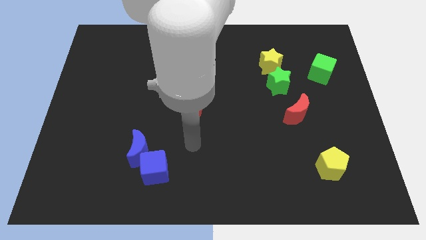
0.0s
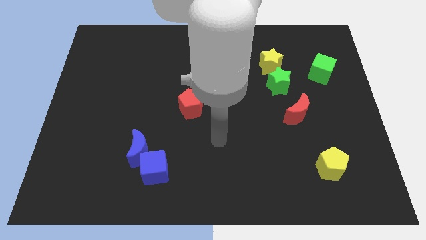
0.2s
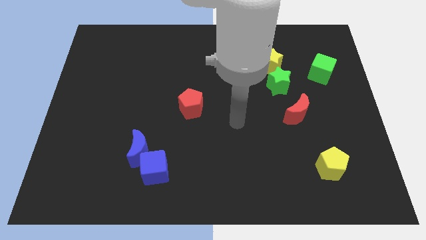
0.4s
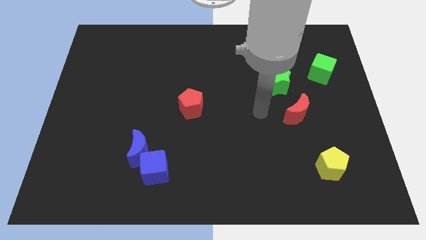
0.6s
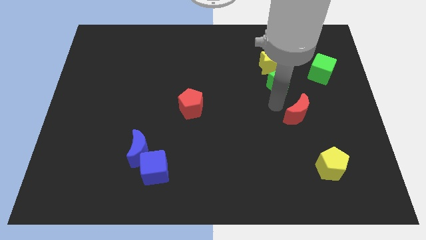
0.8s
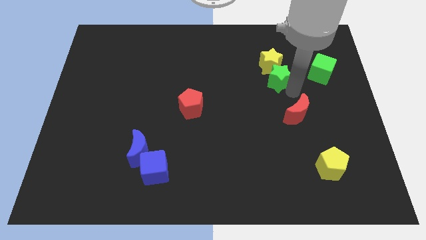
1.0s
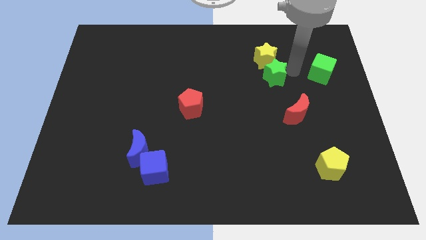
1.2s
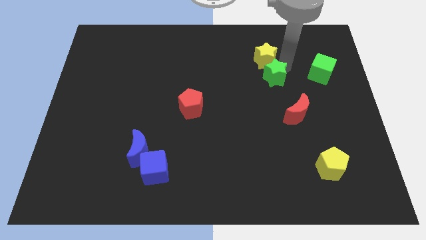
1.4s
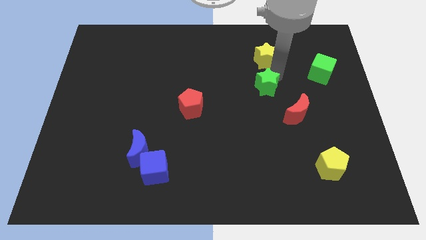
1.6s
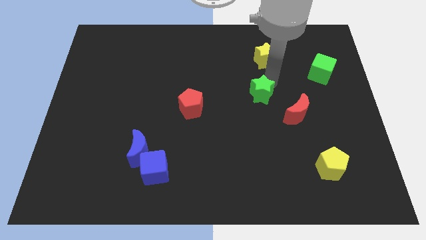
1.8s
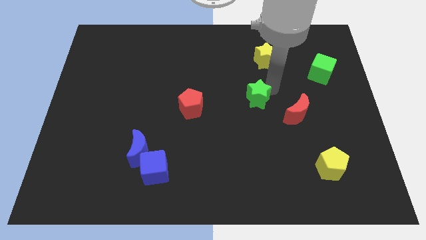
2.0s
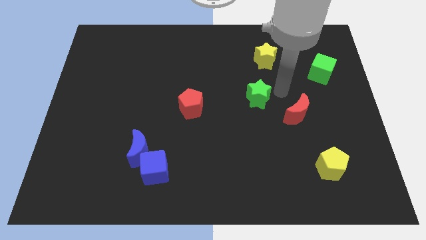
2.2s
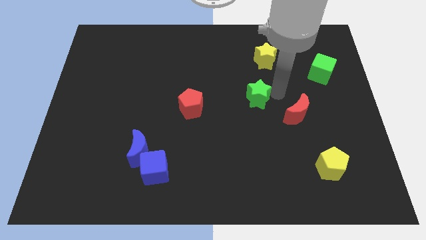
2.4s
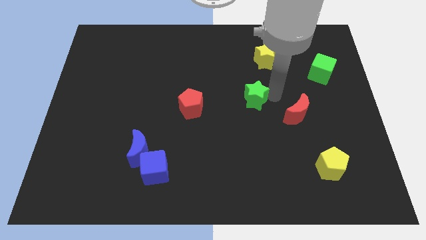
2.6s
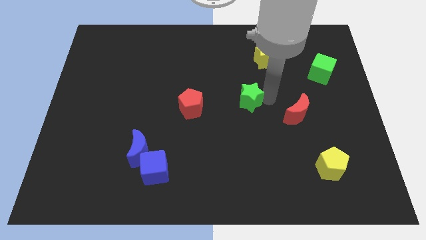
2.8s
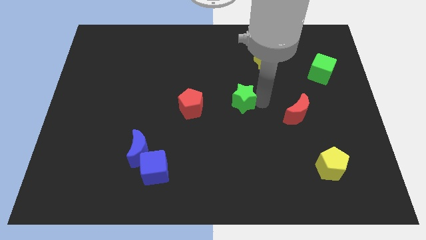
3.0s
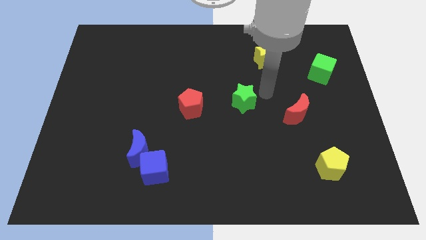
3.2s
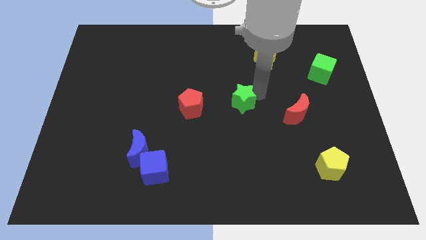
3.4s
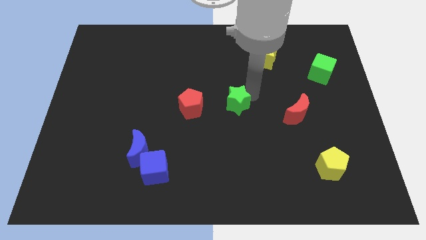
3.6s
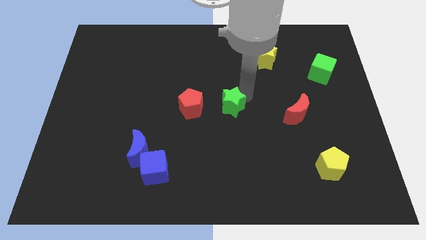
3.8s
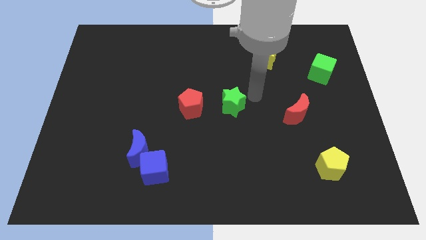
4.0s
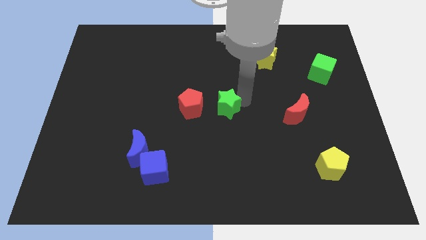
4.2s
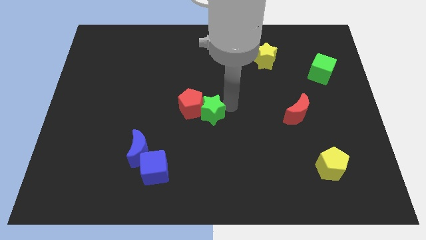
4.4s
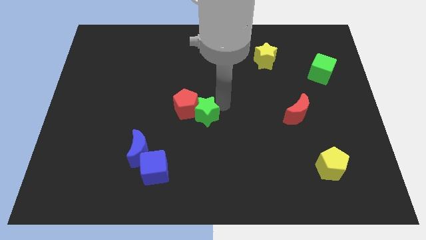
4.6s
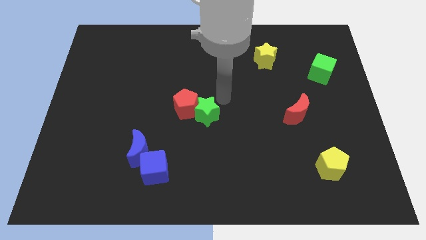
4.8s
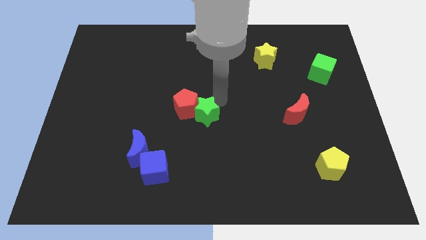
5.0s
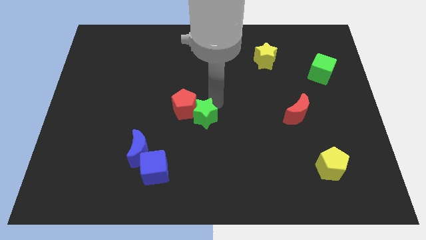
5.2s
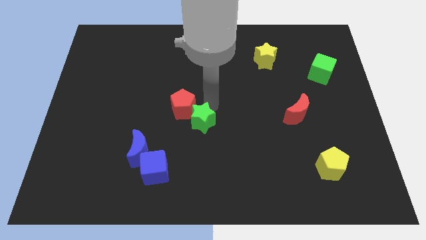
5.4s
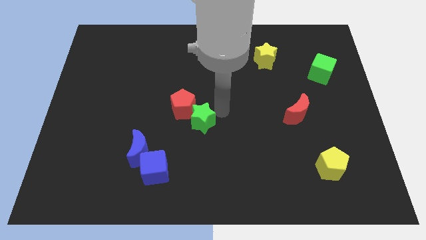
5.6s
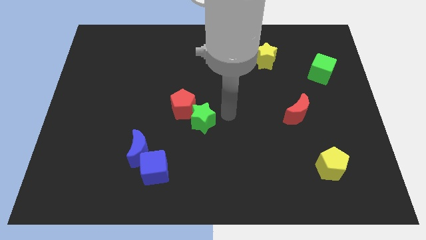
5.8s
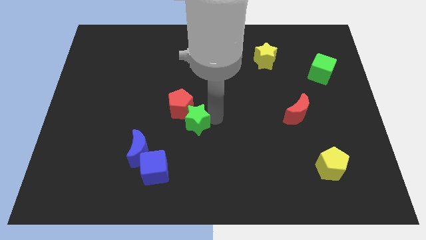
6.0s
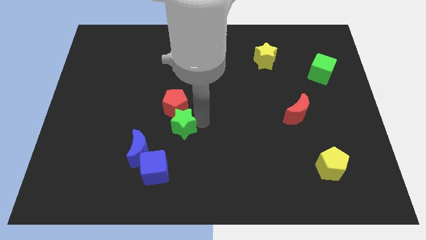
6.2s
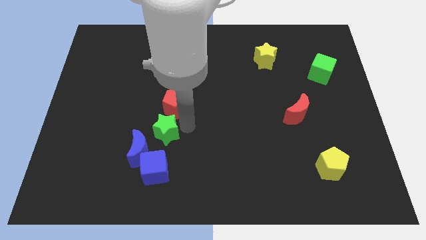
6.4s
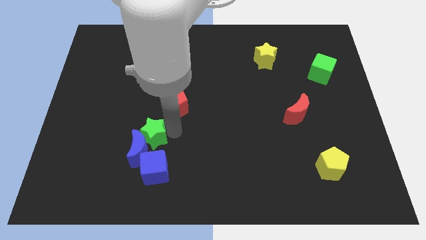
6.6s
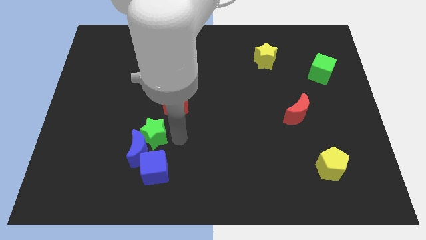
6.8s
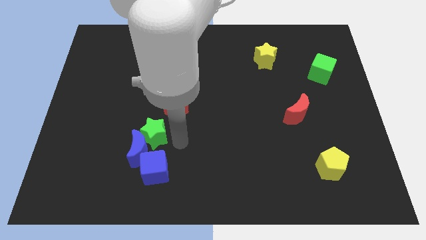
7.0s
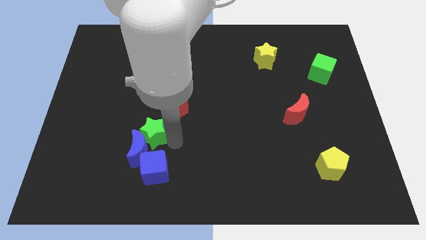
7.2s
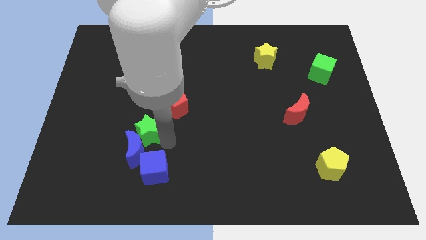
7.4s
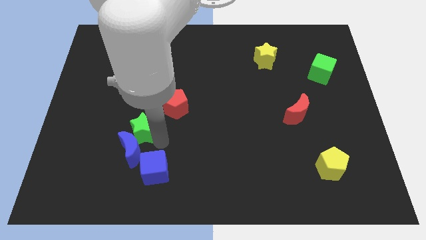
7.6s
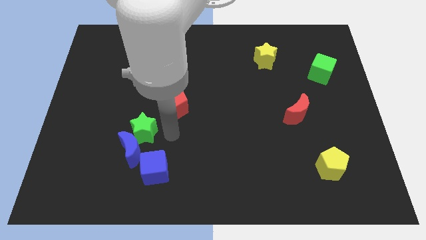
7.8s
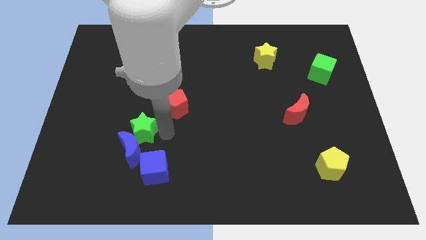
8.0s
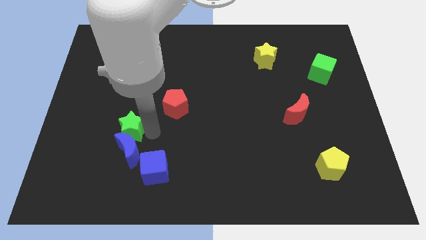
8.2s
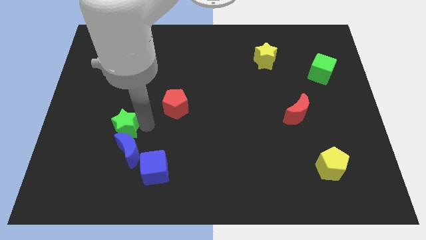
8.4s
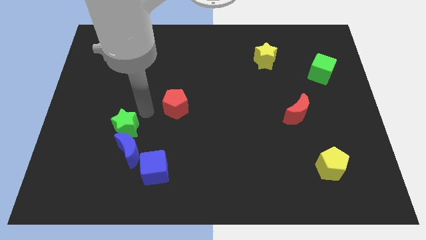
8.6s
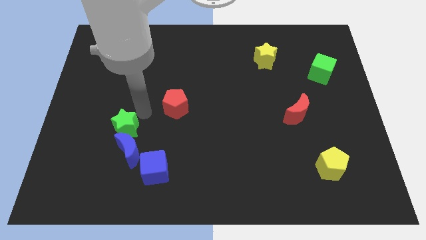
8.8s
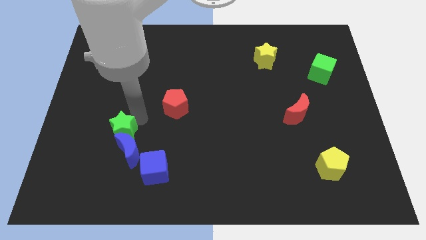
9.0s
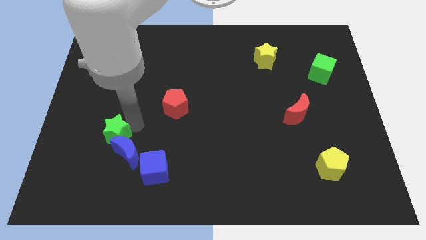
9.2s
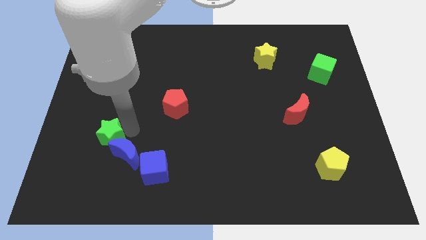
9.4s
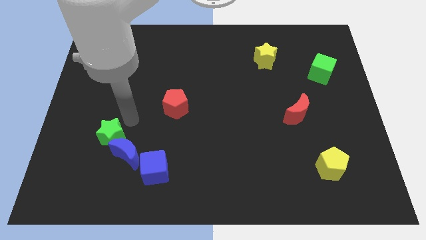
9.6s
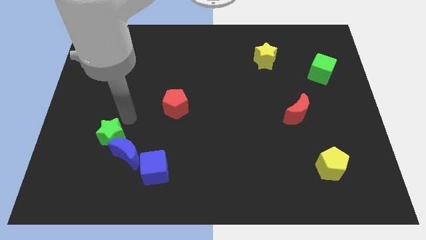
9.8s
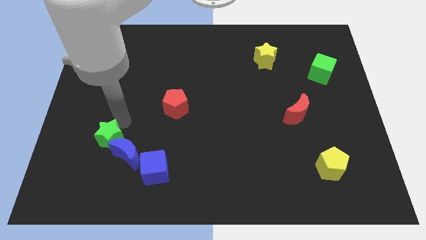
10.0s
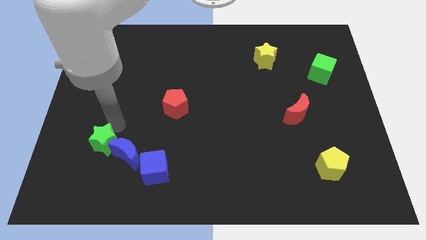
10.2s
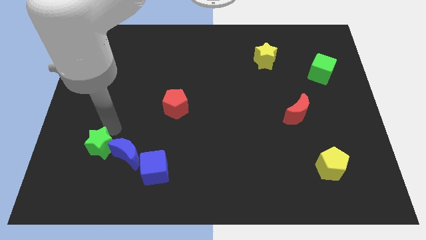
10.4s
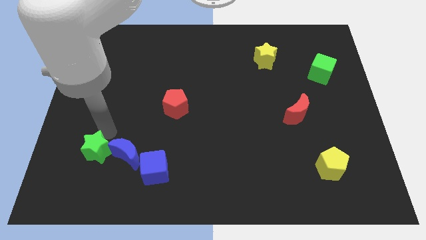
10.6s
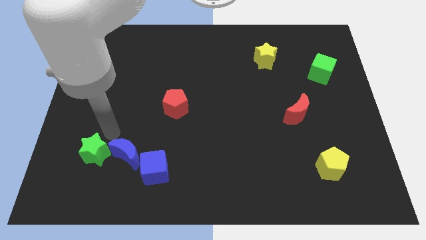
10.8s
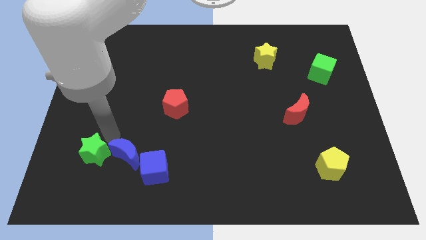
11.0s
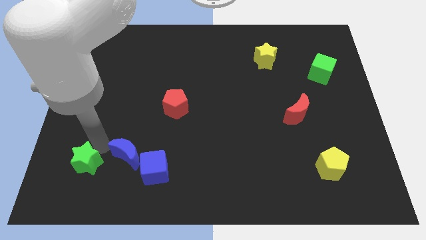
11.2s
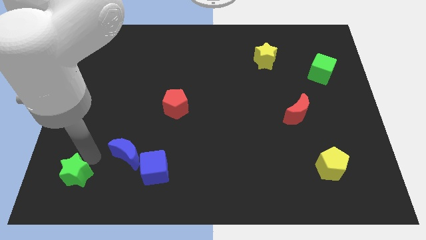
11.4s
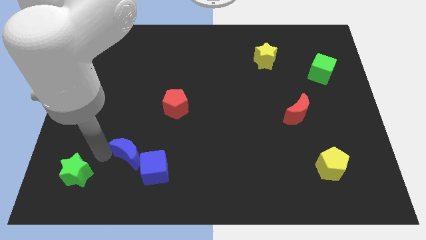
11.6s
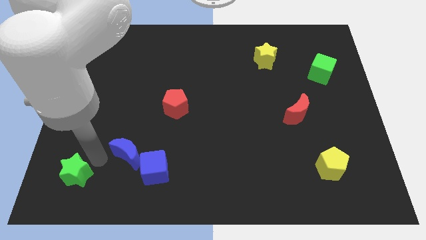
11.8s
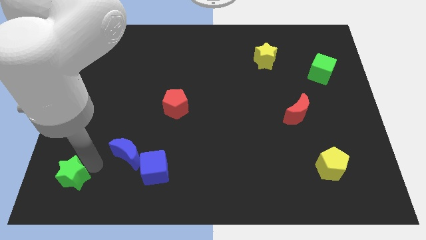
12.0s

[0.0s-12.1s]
put the green star to the lower left corner
